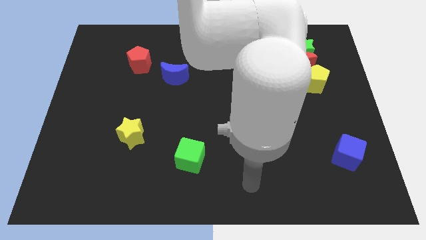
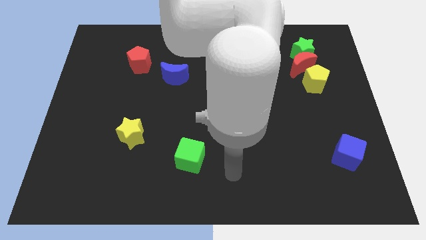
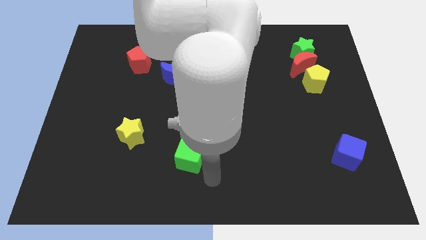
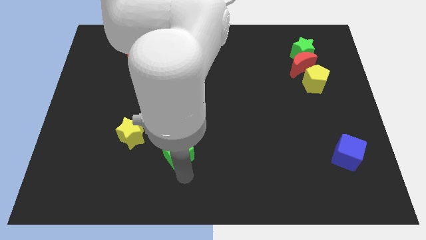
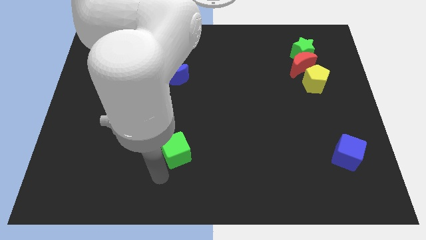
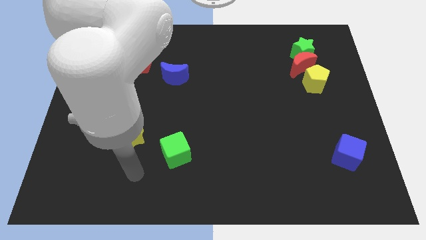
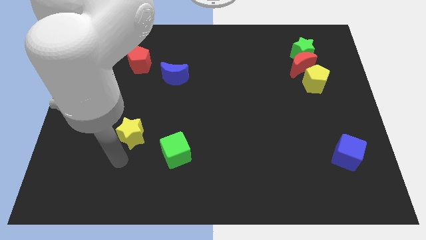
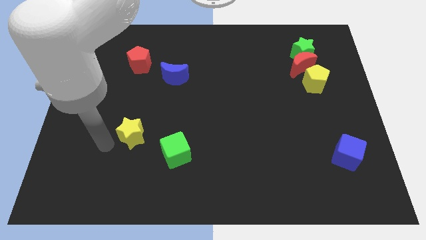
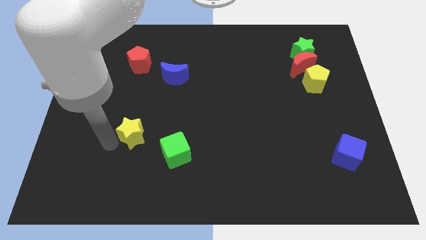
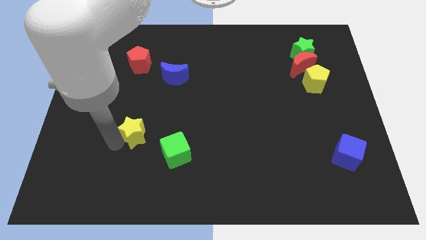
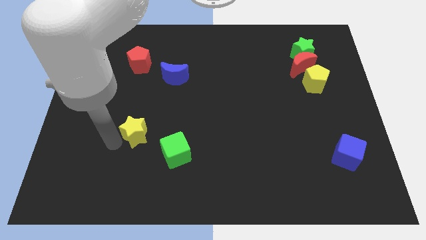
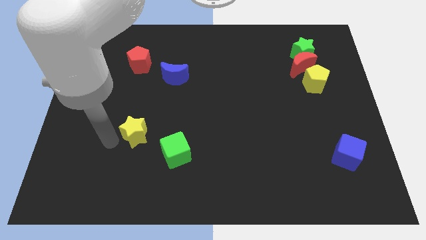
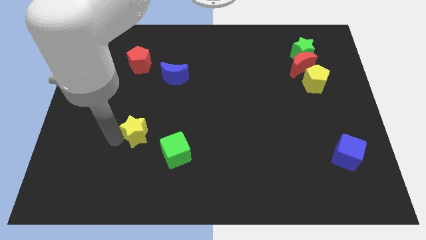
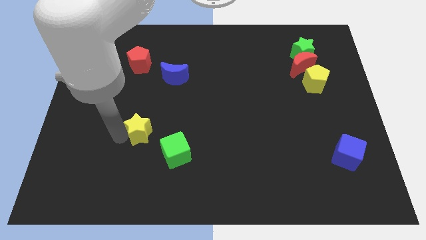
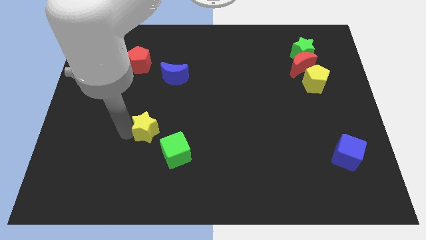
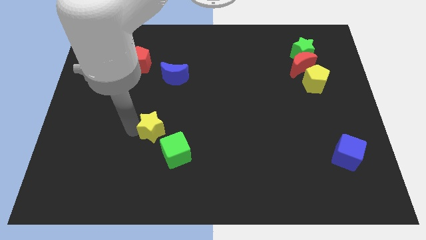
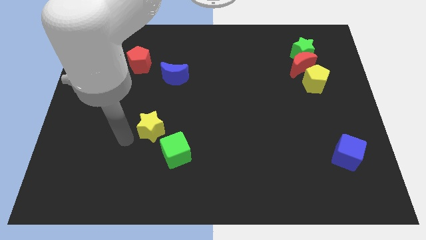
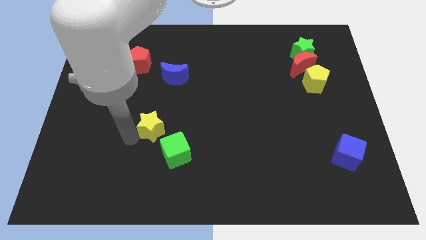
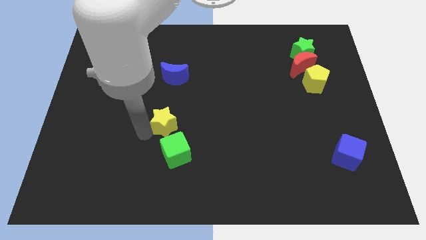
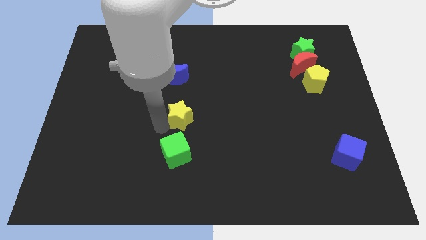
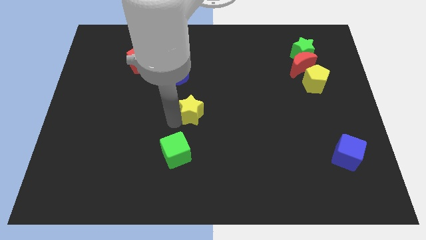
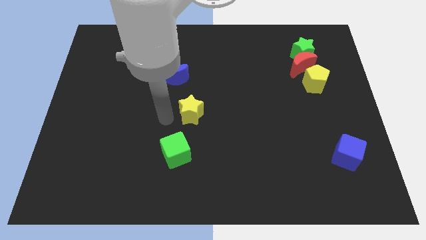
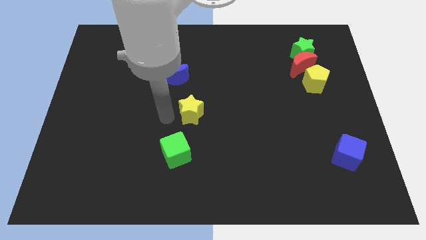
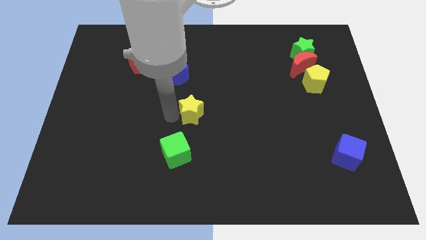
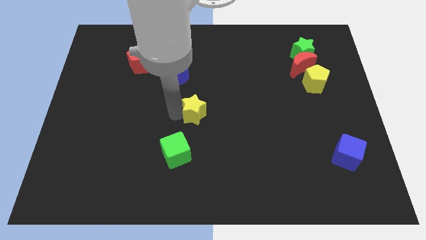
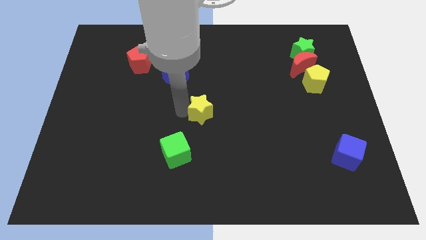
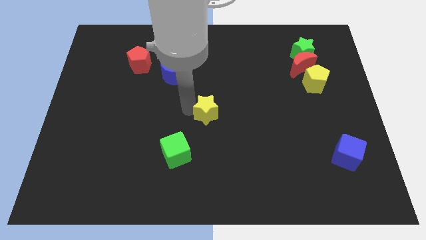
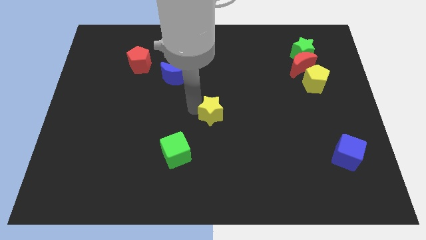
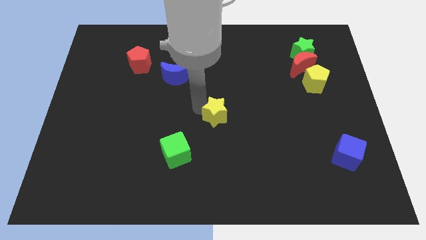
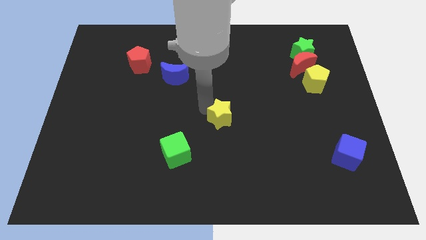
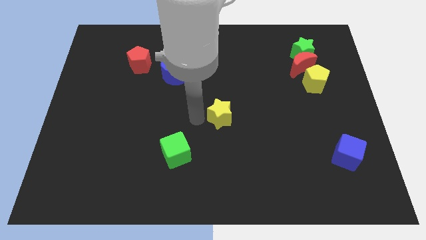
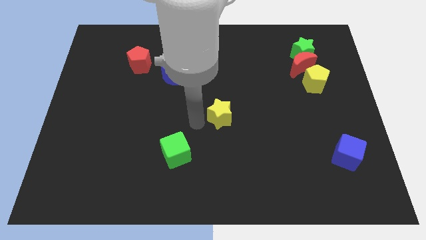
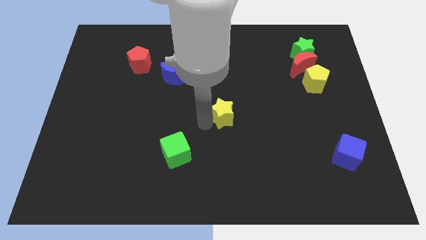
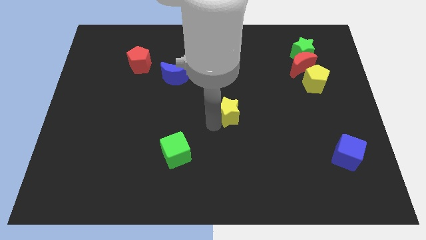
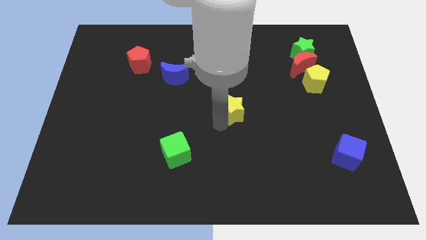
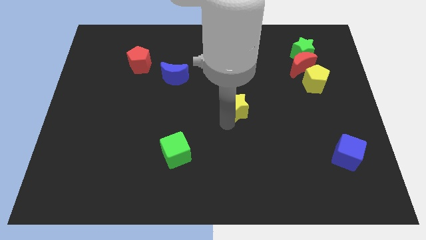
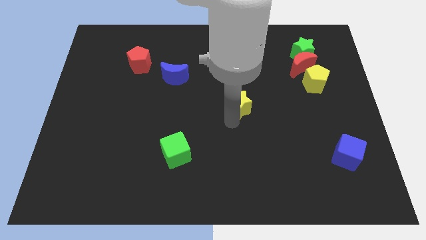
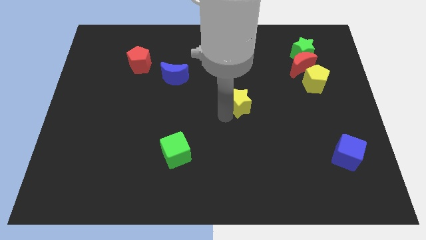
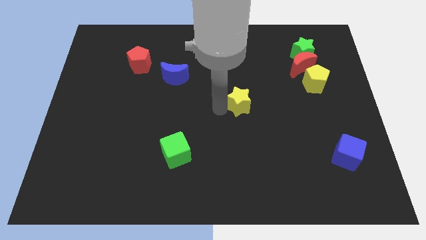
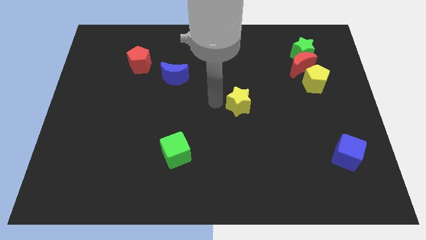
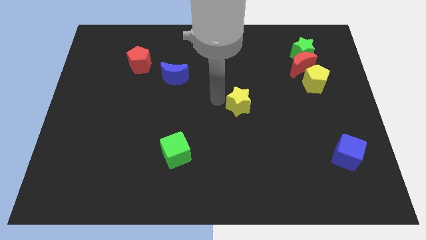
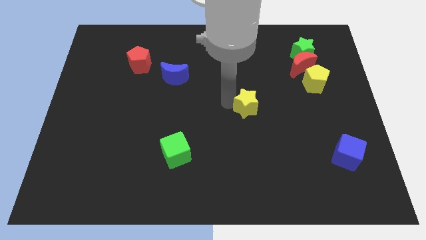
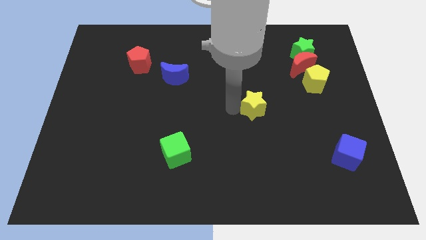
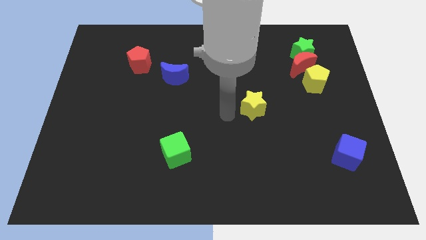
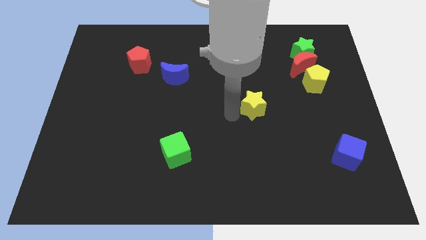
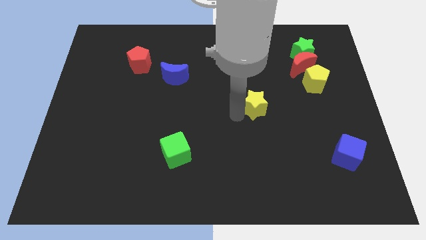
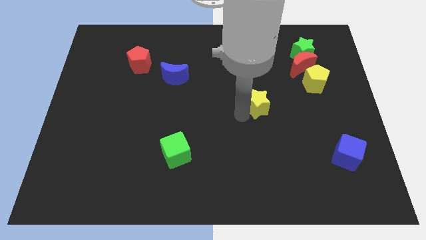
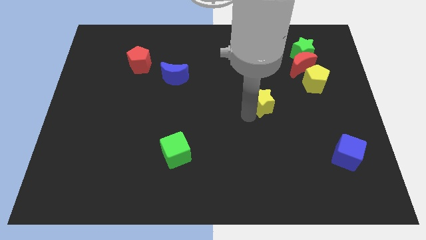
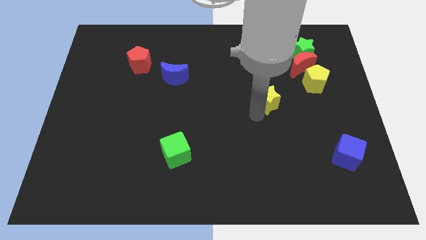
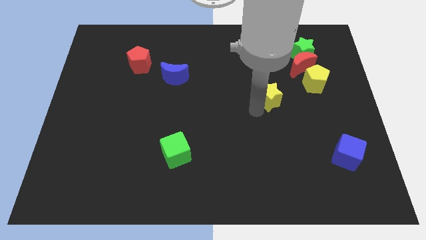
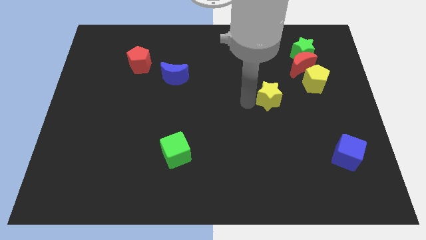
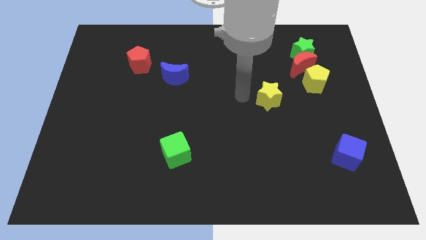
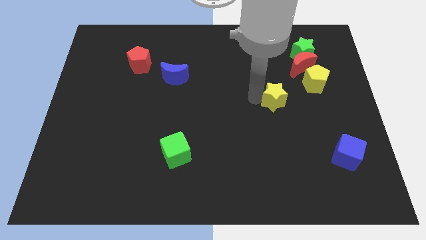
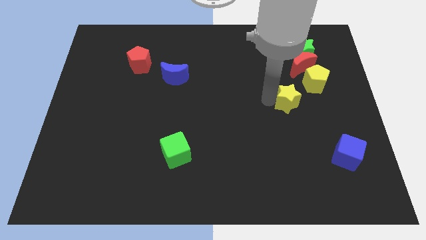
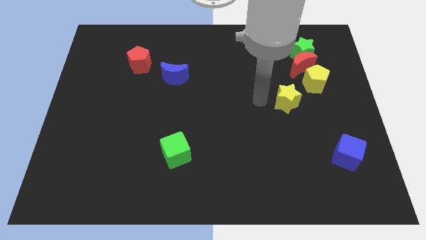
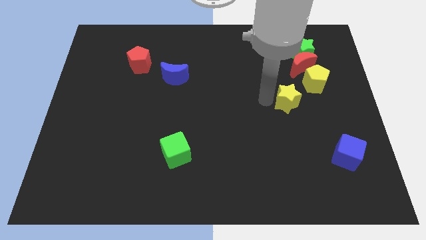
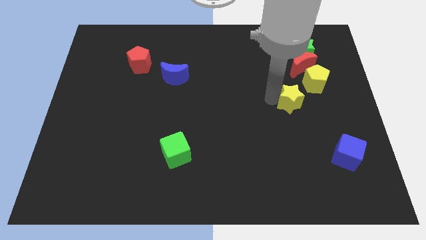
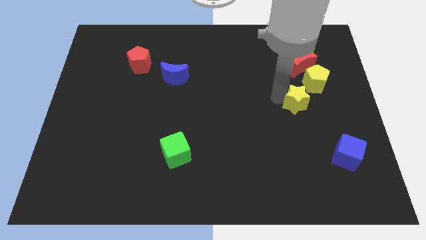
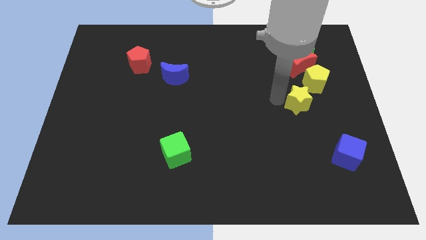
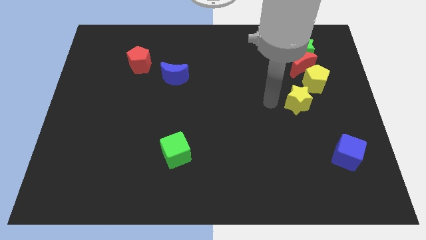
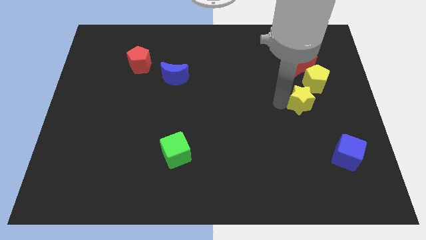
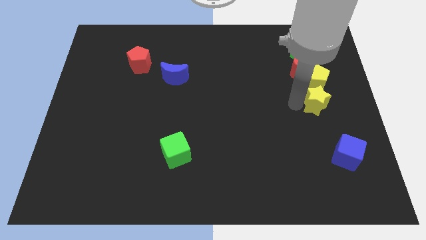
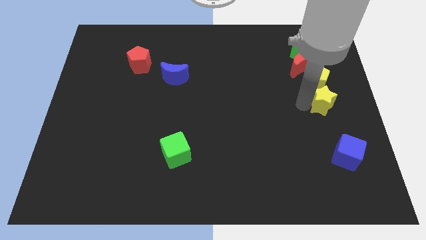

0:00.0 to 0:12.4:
put the yellow star to the right side of the board

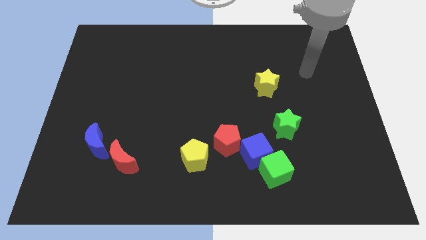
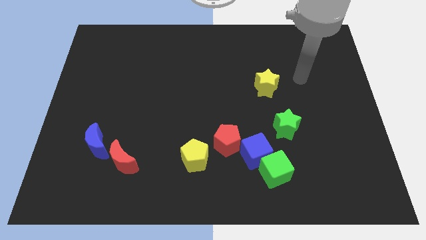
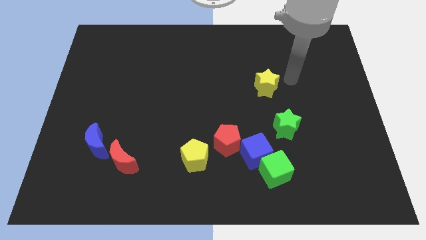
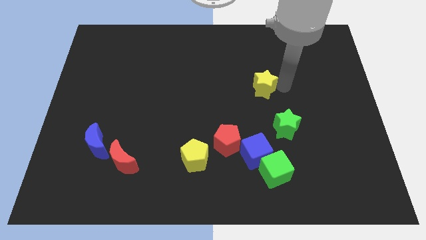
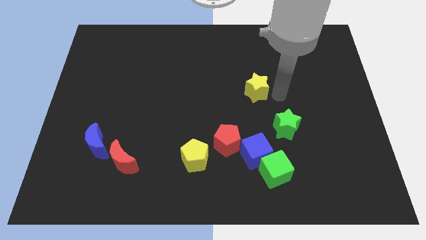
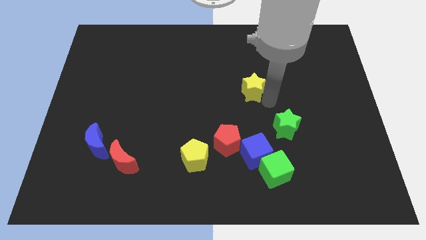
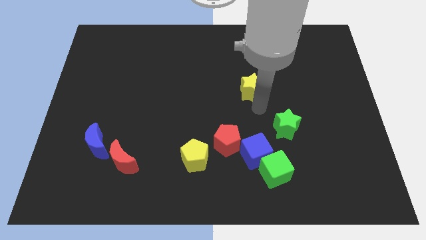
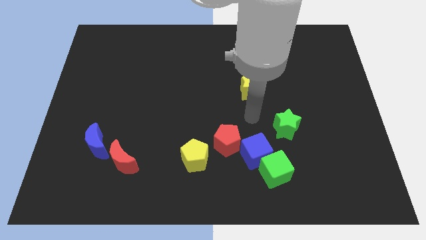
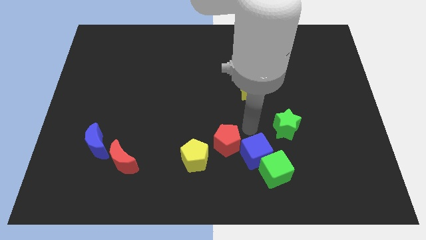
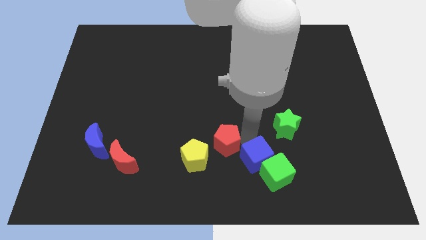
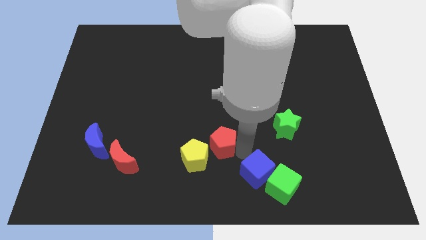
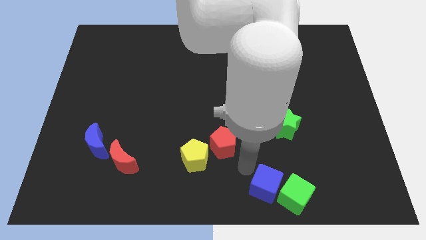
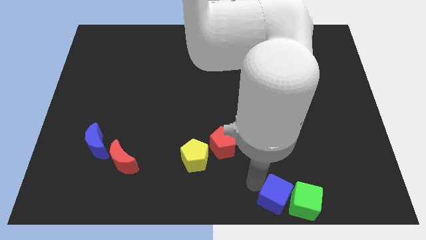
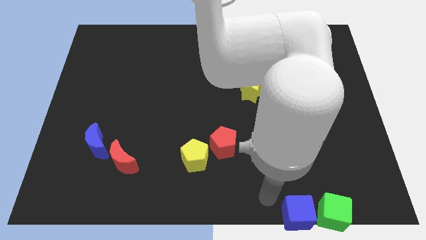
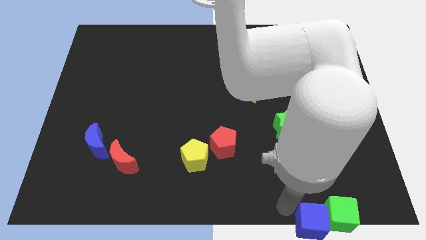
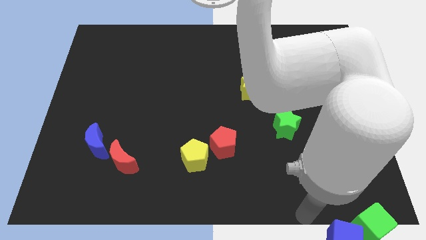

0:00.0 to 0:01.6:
push the green cube to the bottom right of the board
